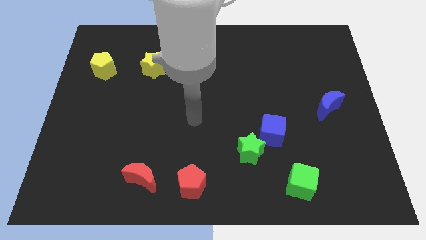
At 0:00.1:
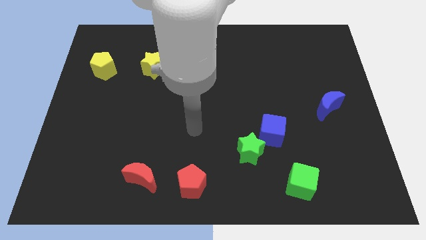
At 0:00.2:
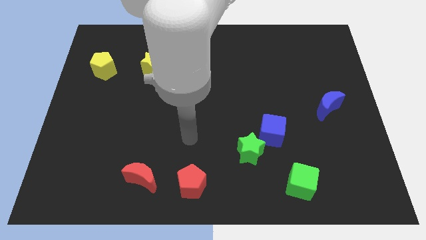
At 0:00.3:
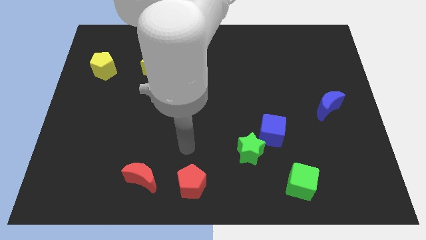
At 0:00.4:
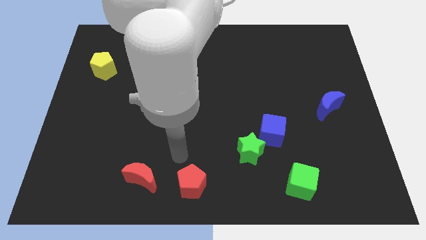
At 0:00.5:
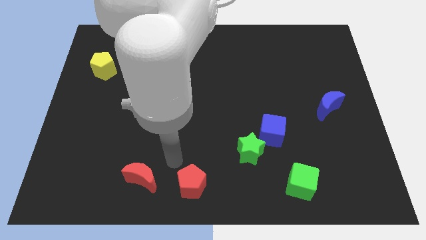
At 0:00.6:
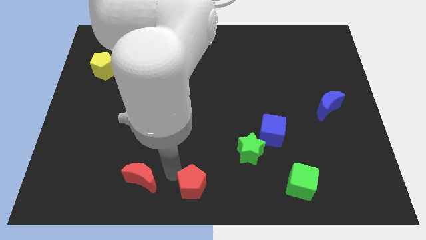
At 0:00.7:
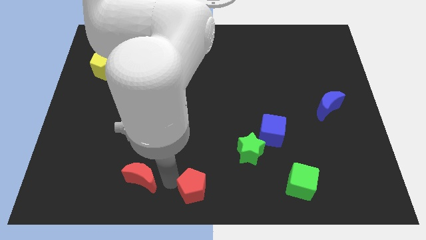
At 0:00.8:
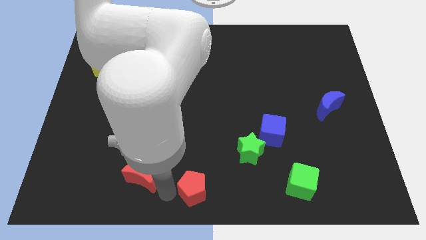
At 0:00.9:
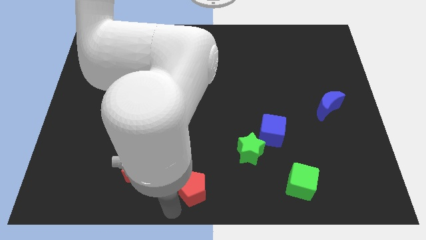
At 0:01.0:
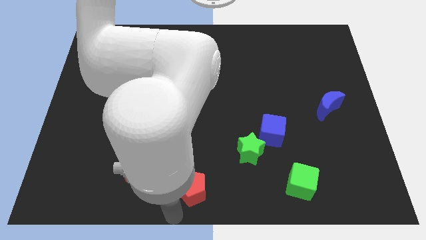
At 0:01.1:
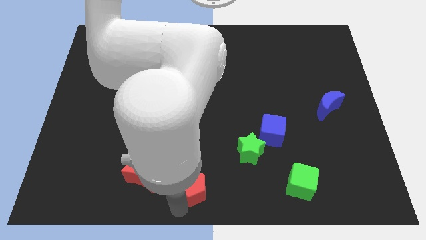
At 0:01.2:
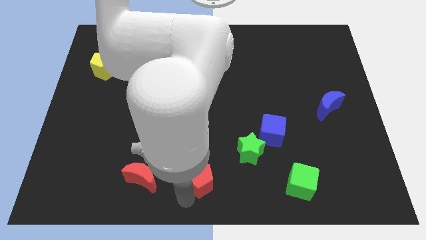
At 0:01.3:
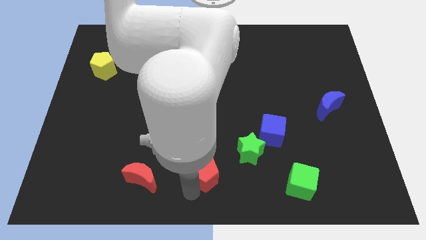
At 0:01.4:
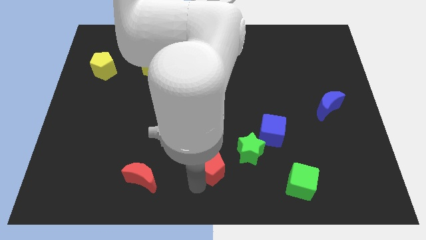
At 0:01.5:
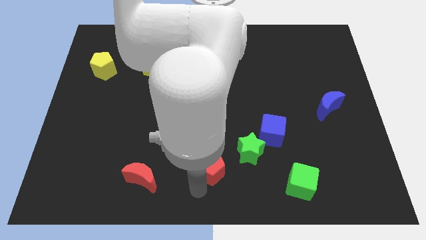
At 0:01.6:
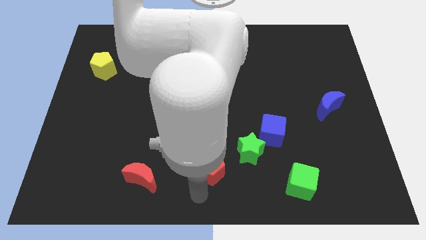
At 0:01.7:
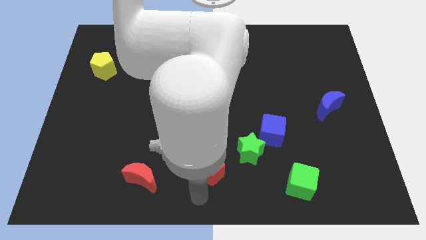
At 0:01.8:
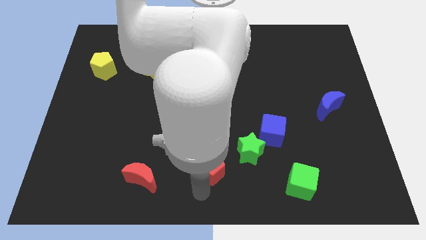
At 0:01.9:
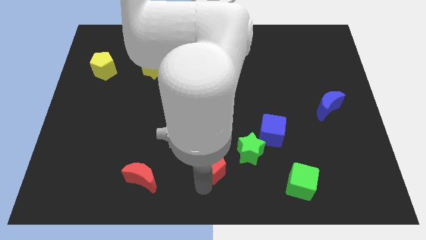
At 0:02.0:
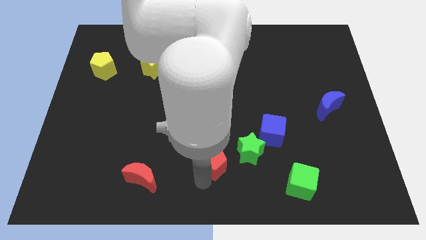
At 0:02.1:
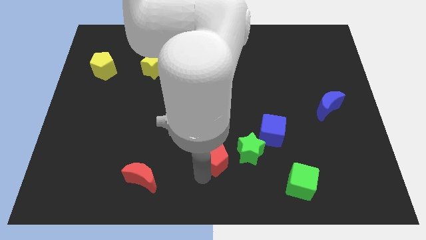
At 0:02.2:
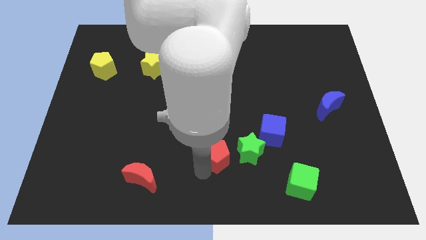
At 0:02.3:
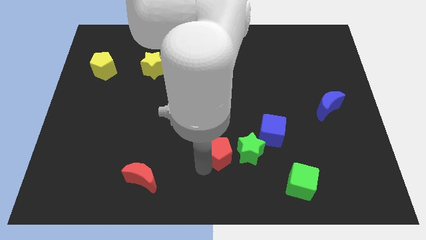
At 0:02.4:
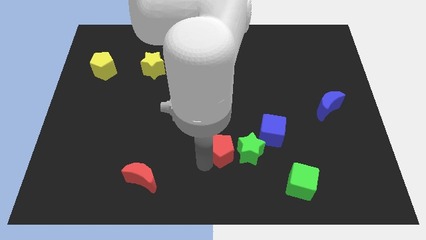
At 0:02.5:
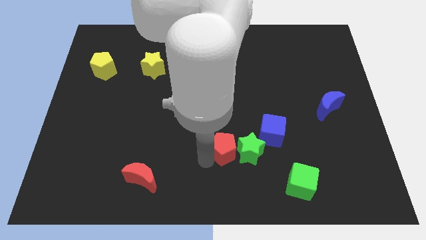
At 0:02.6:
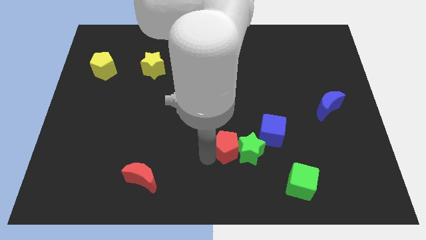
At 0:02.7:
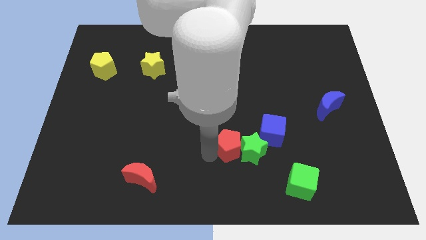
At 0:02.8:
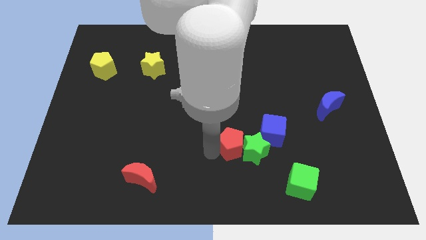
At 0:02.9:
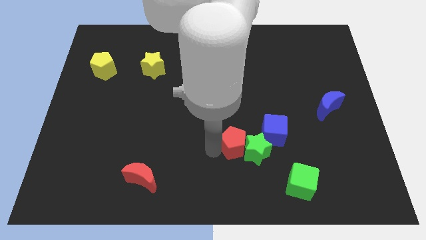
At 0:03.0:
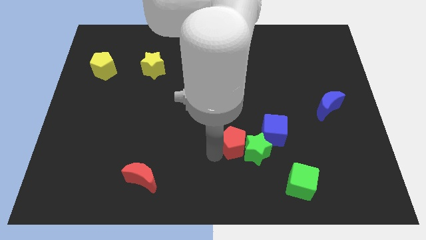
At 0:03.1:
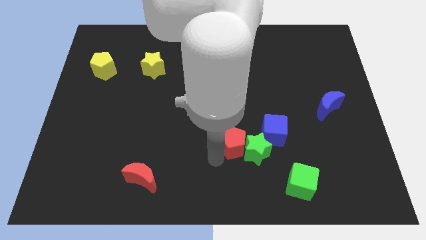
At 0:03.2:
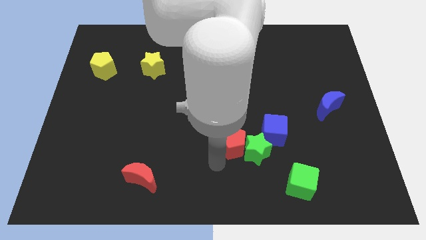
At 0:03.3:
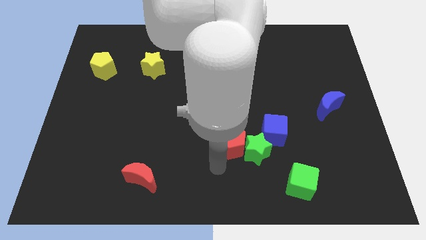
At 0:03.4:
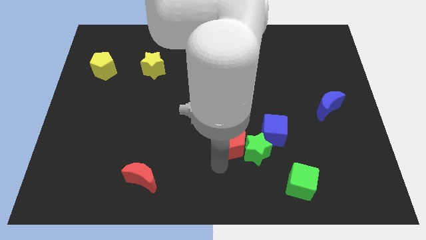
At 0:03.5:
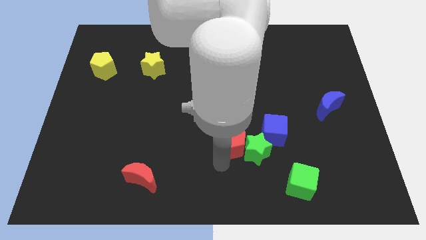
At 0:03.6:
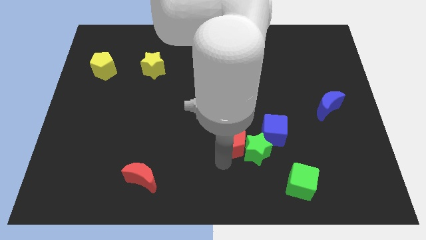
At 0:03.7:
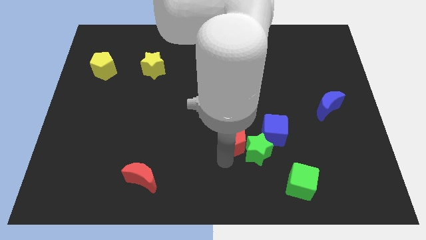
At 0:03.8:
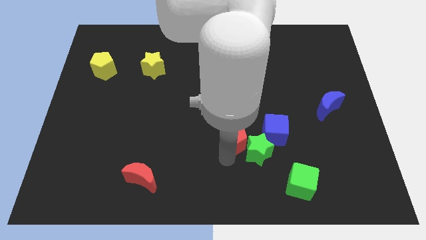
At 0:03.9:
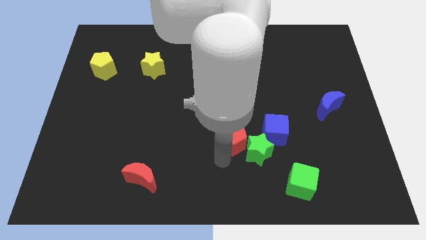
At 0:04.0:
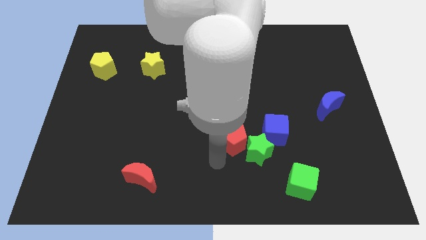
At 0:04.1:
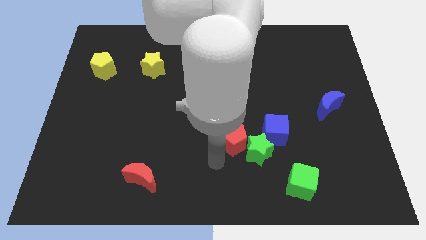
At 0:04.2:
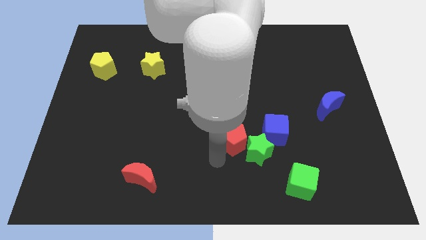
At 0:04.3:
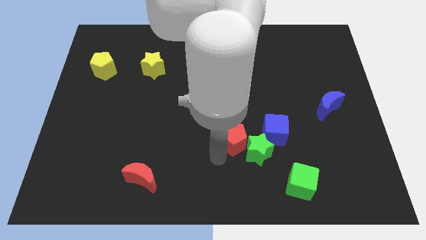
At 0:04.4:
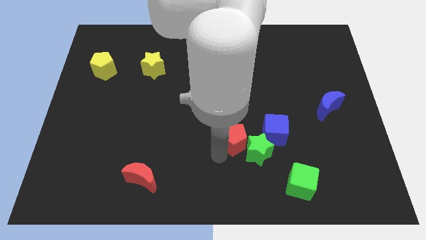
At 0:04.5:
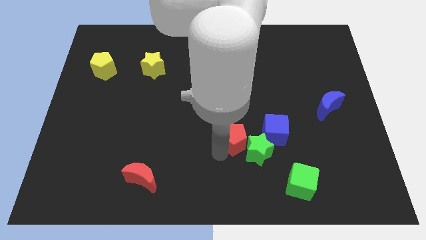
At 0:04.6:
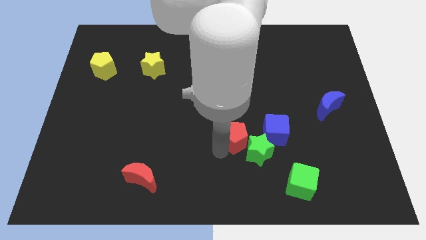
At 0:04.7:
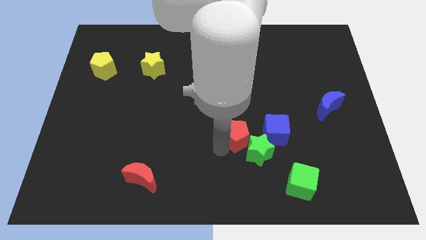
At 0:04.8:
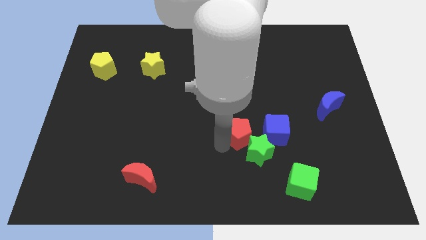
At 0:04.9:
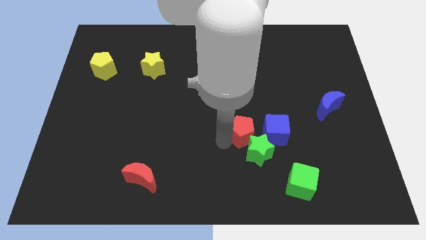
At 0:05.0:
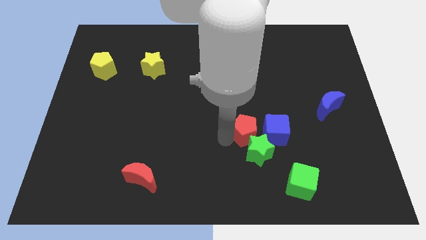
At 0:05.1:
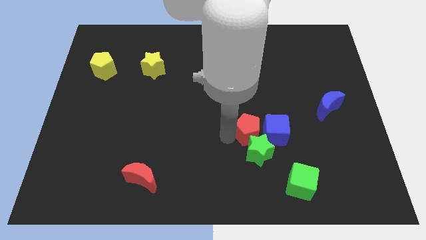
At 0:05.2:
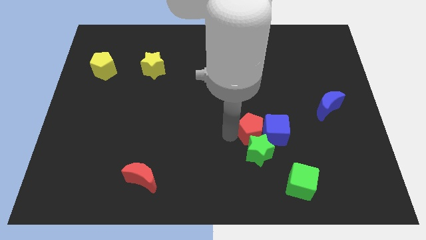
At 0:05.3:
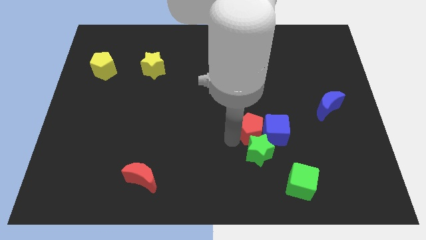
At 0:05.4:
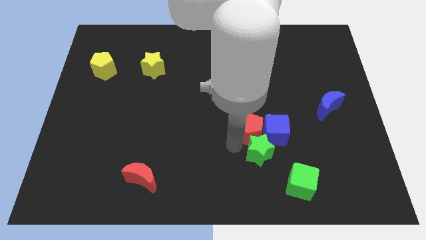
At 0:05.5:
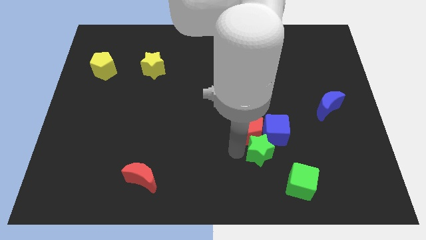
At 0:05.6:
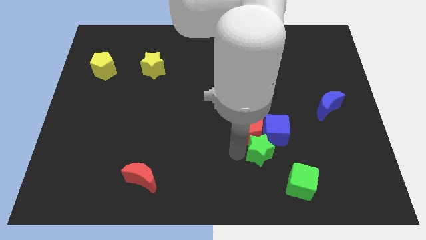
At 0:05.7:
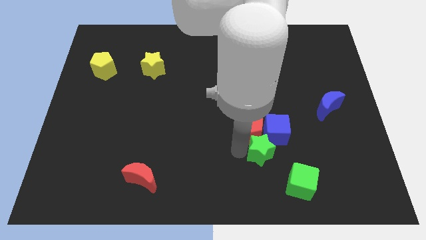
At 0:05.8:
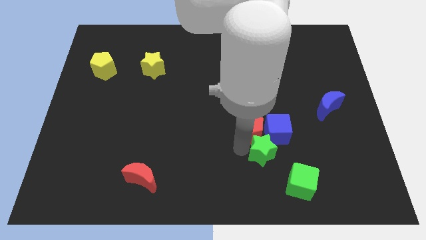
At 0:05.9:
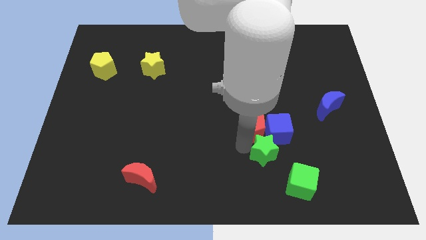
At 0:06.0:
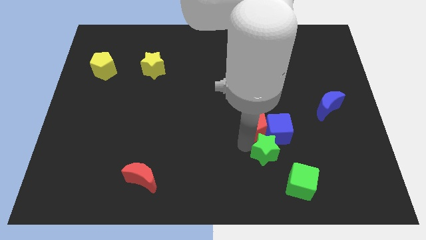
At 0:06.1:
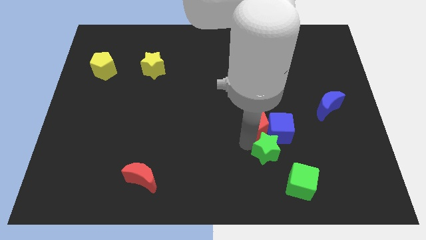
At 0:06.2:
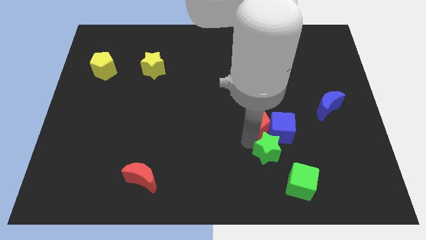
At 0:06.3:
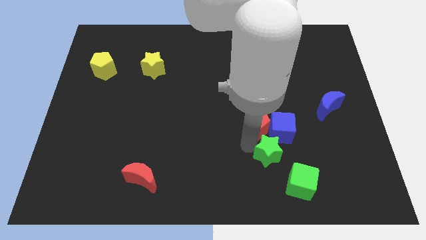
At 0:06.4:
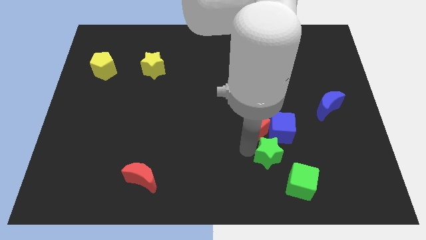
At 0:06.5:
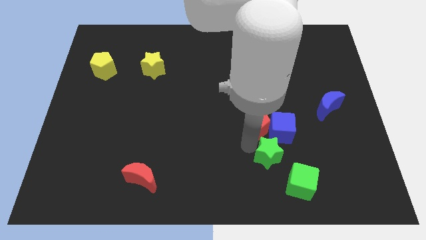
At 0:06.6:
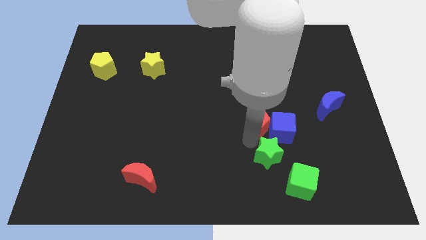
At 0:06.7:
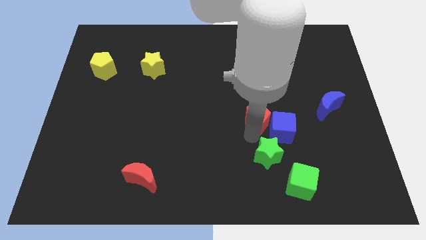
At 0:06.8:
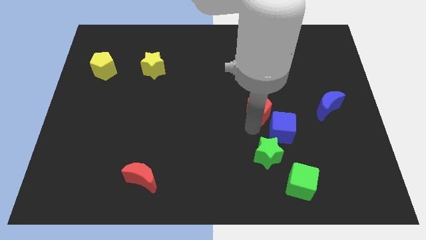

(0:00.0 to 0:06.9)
slide the red pentagon above the blue cube
